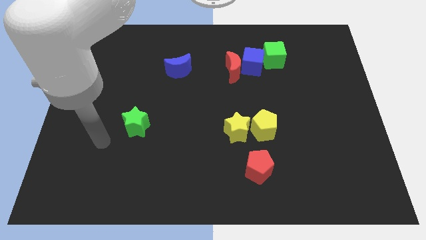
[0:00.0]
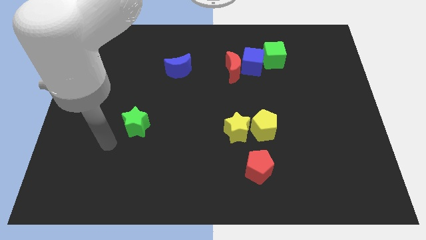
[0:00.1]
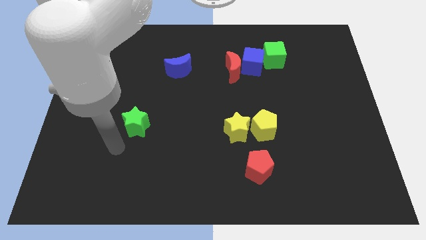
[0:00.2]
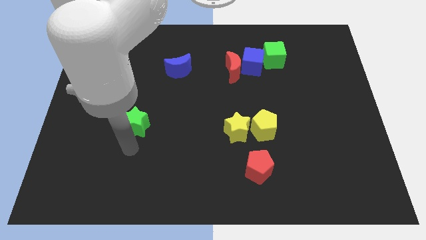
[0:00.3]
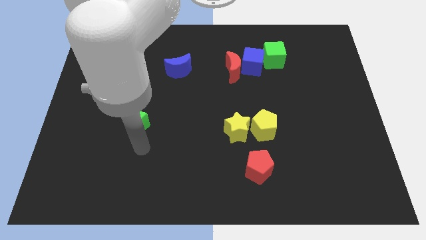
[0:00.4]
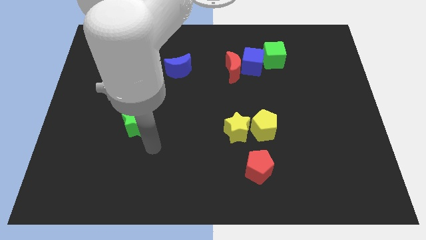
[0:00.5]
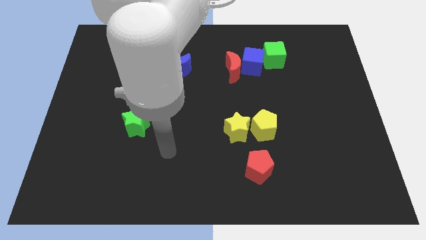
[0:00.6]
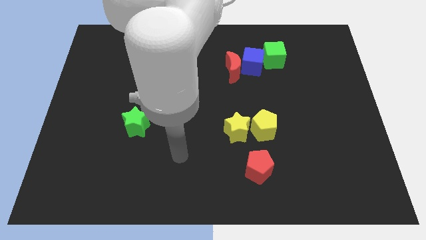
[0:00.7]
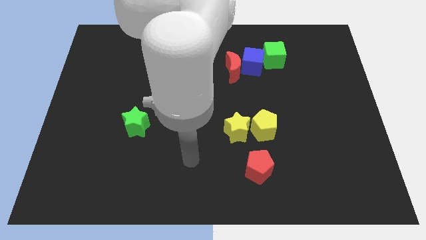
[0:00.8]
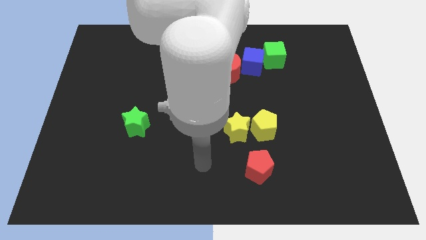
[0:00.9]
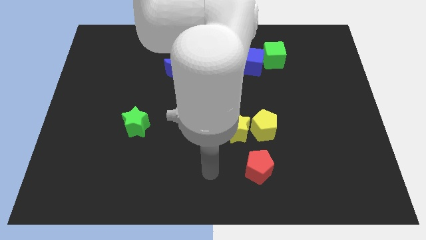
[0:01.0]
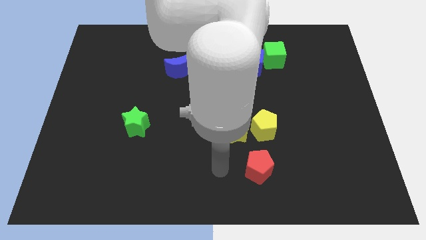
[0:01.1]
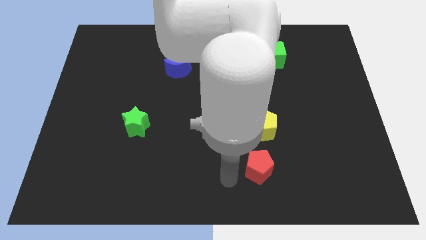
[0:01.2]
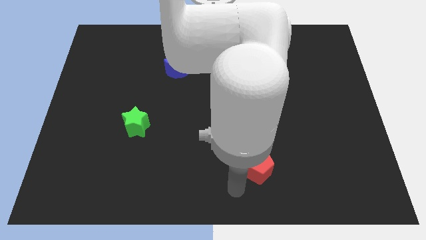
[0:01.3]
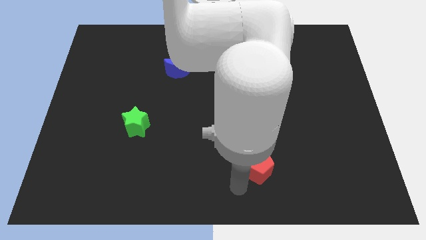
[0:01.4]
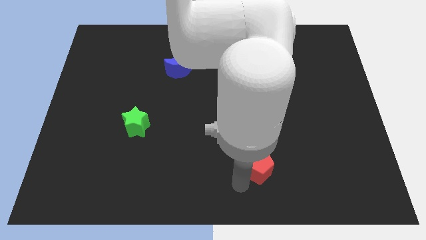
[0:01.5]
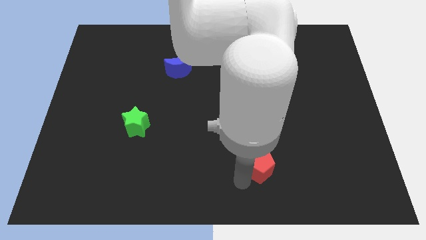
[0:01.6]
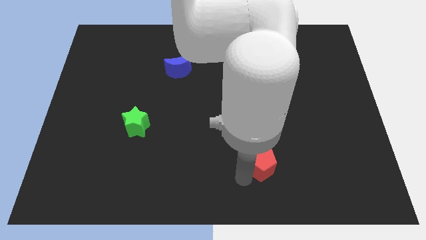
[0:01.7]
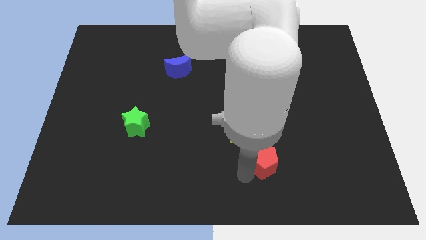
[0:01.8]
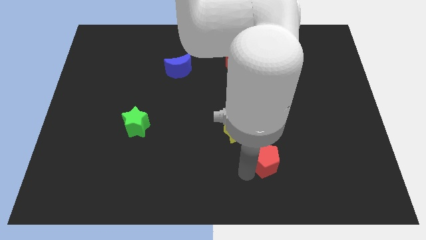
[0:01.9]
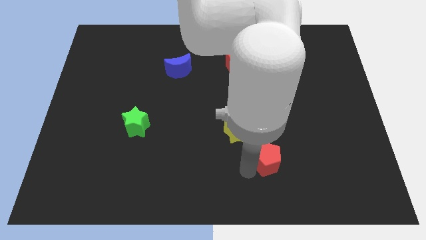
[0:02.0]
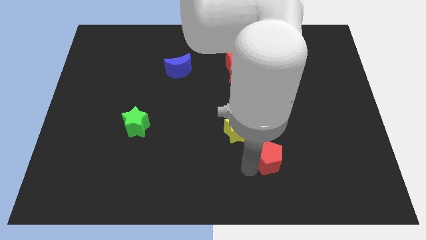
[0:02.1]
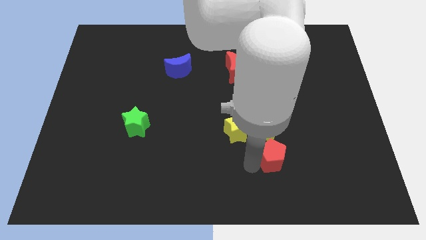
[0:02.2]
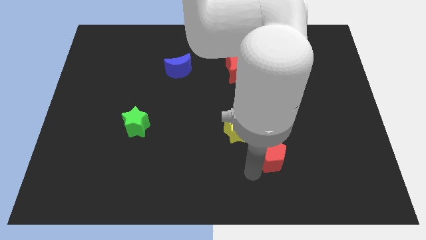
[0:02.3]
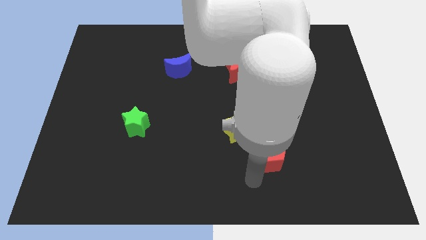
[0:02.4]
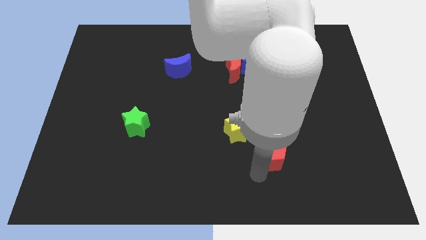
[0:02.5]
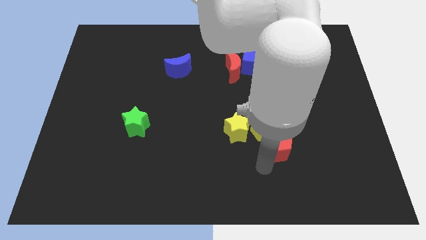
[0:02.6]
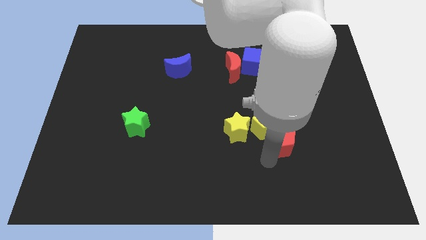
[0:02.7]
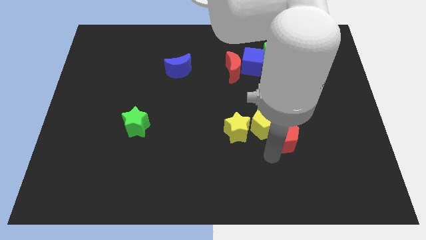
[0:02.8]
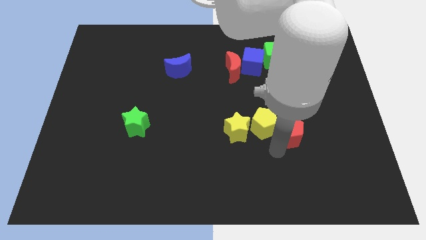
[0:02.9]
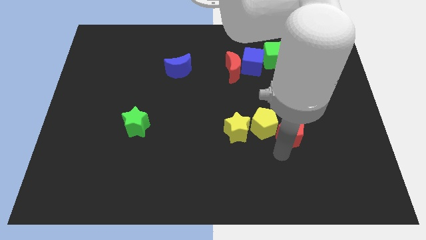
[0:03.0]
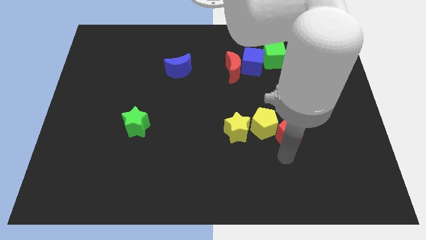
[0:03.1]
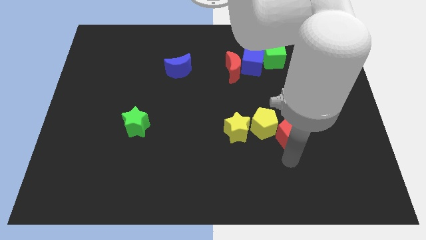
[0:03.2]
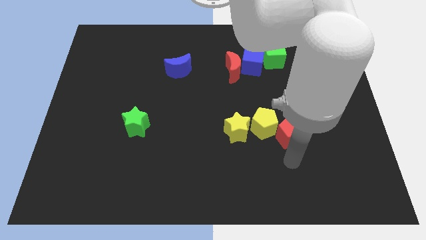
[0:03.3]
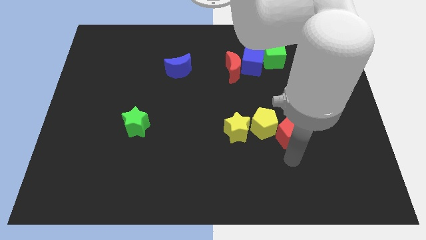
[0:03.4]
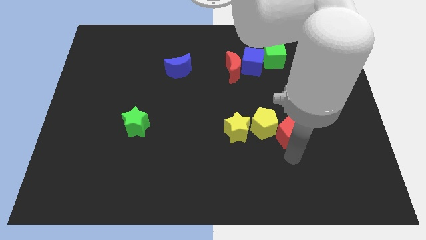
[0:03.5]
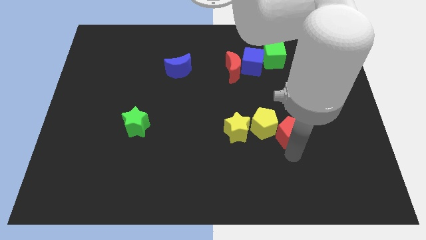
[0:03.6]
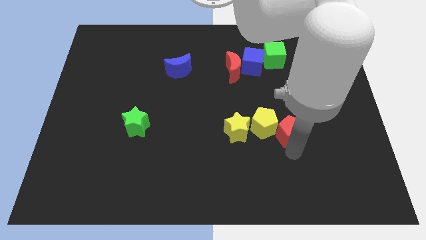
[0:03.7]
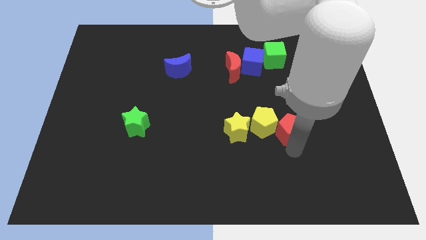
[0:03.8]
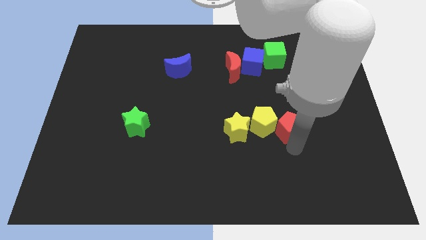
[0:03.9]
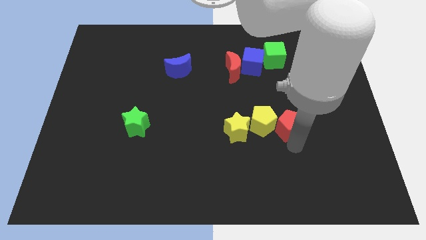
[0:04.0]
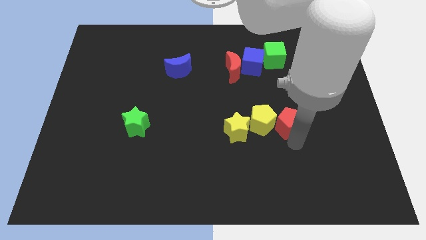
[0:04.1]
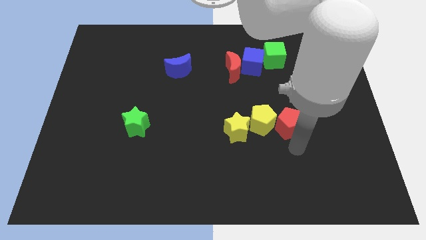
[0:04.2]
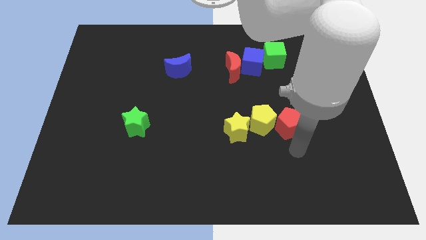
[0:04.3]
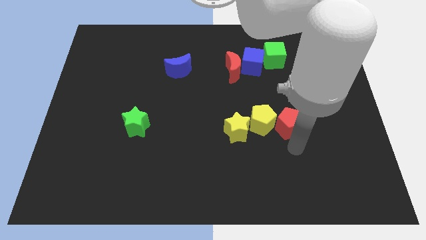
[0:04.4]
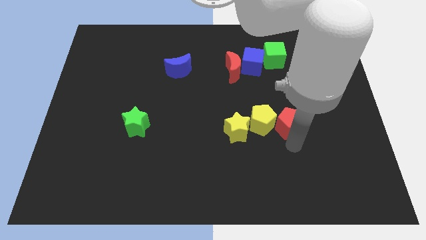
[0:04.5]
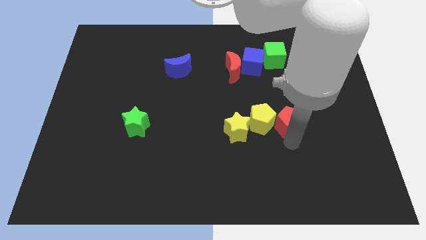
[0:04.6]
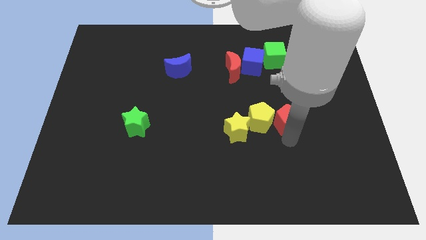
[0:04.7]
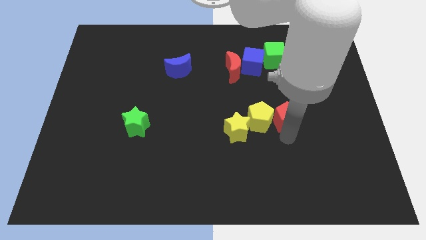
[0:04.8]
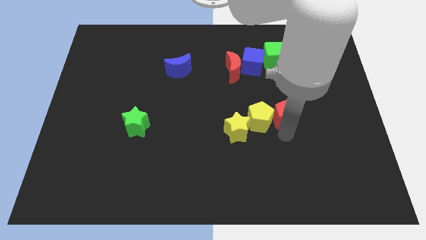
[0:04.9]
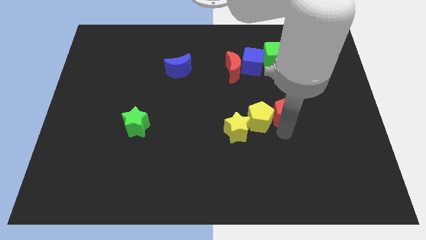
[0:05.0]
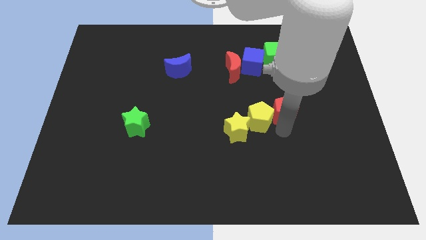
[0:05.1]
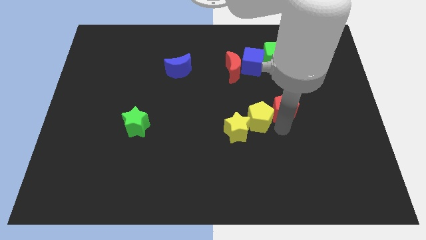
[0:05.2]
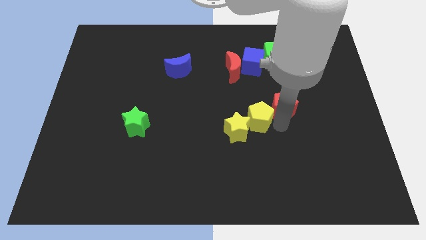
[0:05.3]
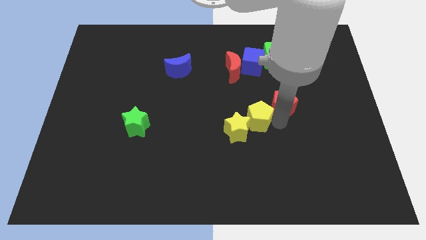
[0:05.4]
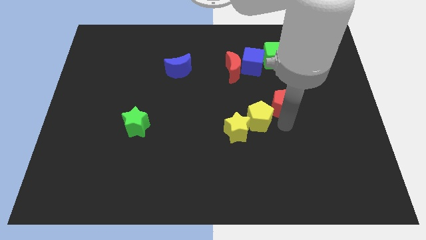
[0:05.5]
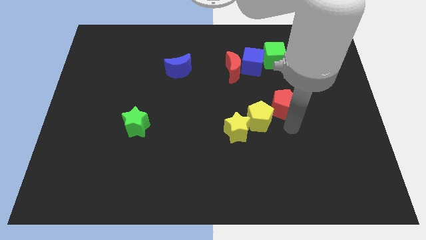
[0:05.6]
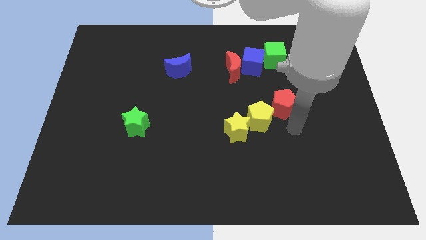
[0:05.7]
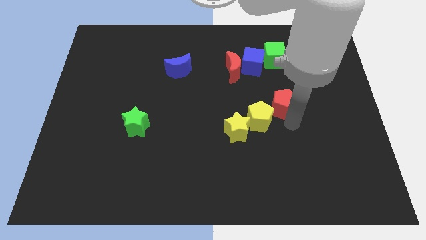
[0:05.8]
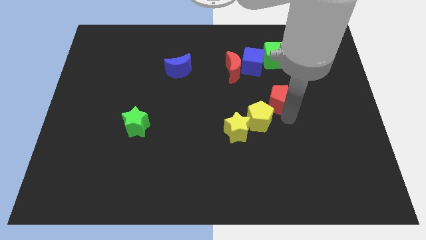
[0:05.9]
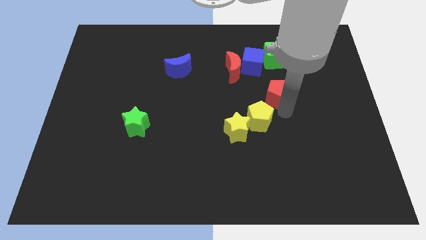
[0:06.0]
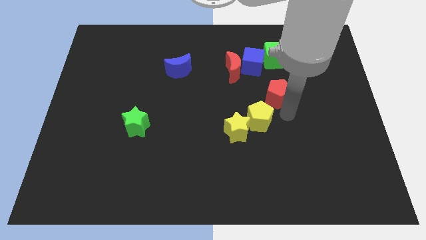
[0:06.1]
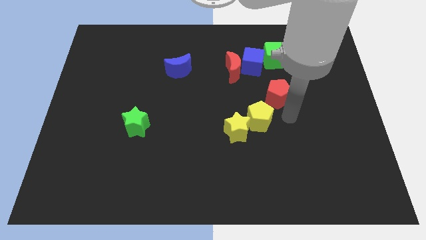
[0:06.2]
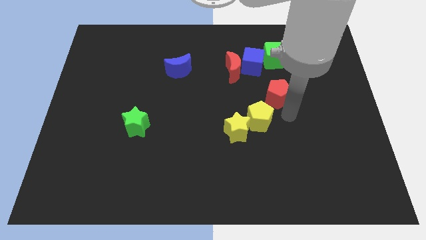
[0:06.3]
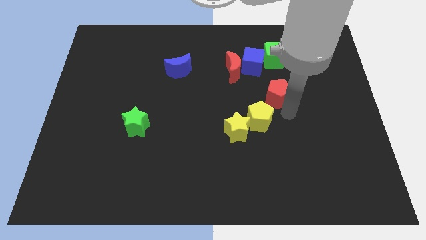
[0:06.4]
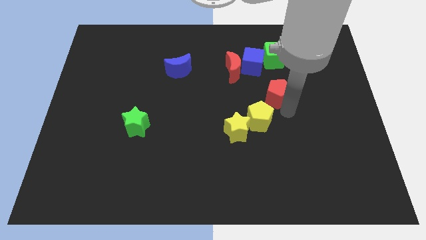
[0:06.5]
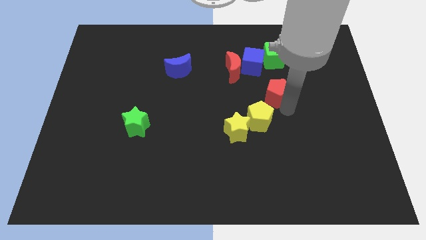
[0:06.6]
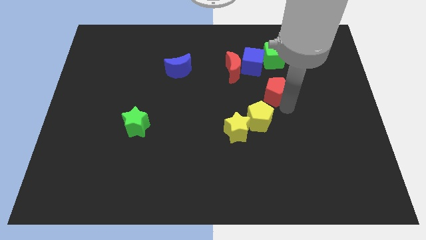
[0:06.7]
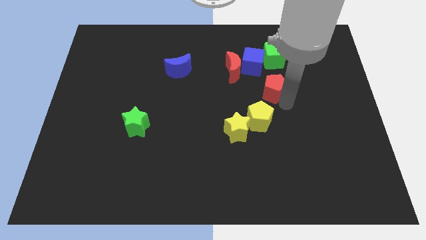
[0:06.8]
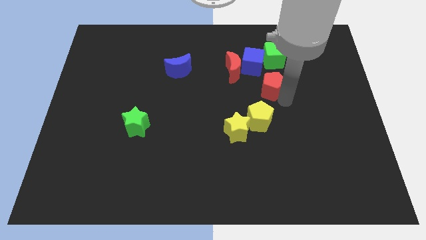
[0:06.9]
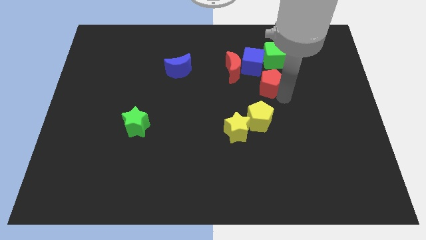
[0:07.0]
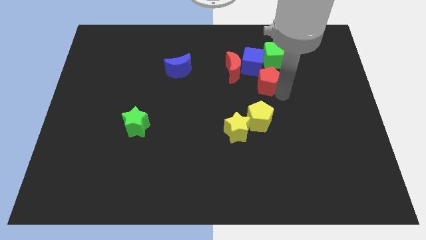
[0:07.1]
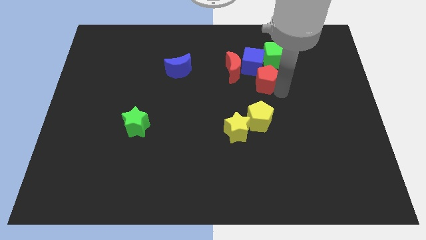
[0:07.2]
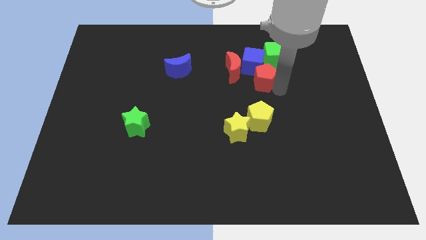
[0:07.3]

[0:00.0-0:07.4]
move the red pentagon next to the blue cube
